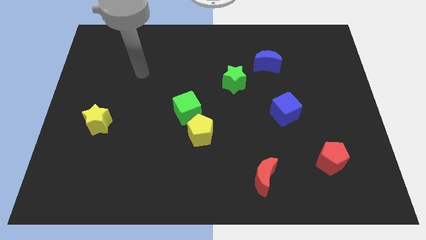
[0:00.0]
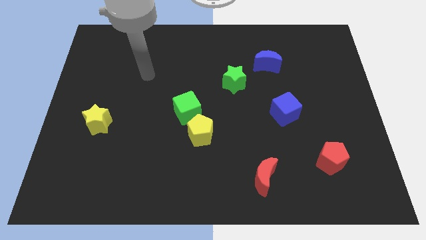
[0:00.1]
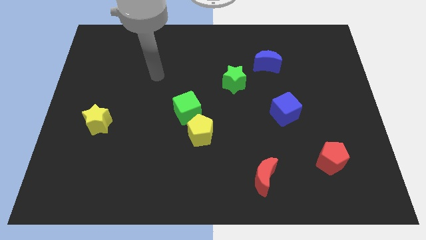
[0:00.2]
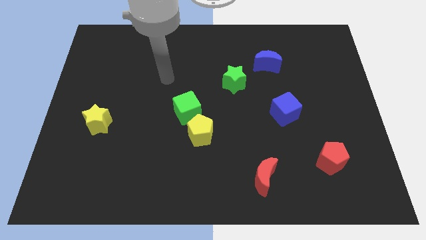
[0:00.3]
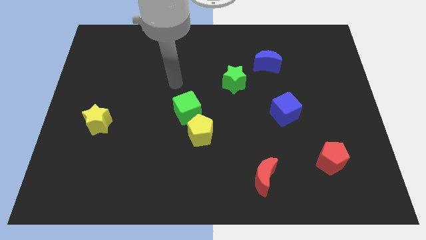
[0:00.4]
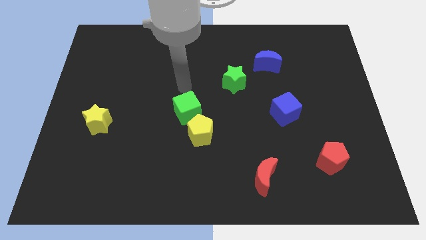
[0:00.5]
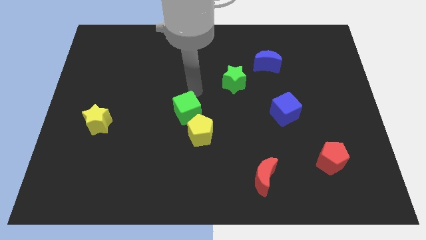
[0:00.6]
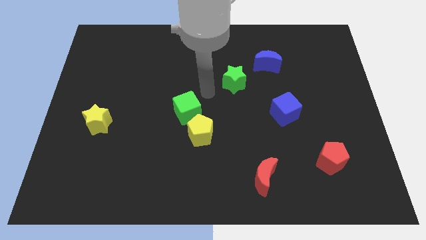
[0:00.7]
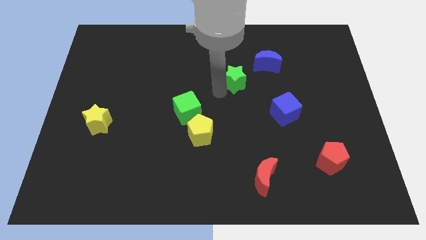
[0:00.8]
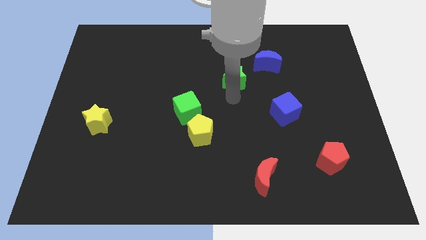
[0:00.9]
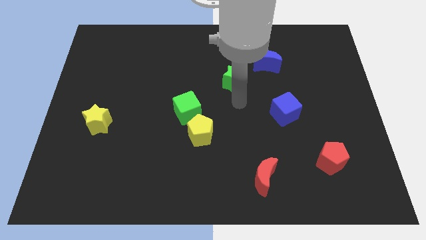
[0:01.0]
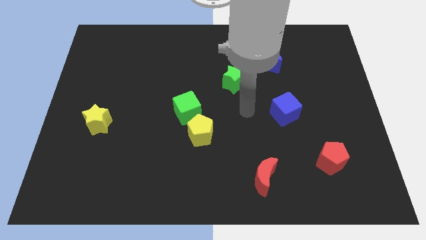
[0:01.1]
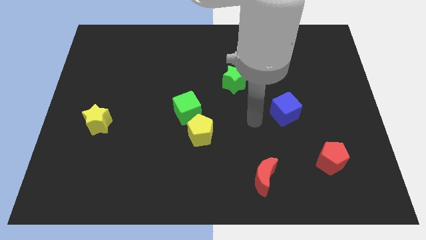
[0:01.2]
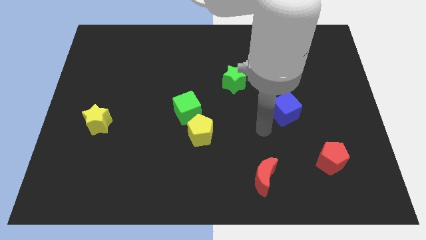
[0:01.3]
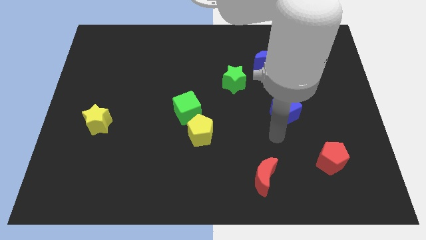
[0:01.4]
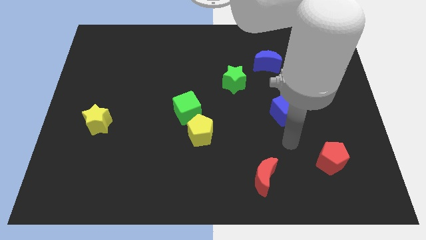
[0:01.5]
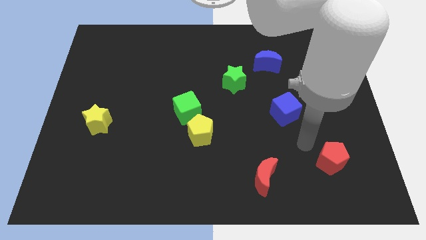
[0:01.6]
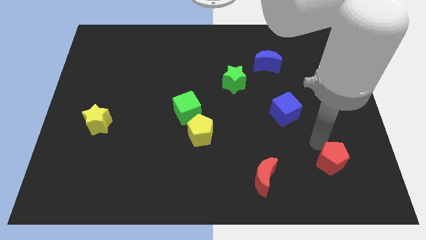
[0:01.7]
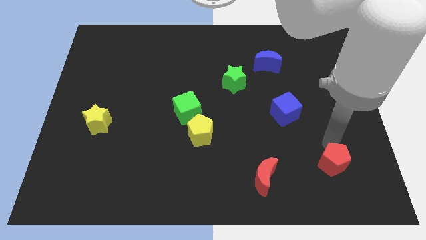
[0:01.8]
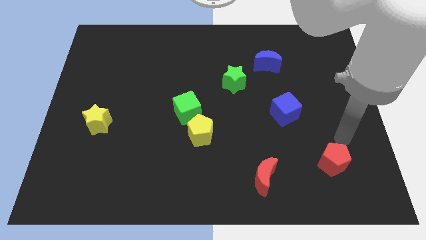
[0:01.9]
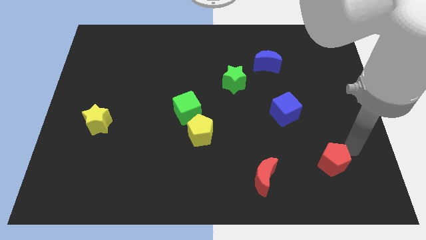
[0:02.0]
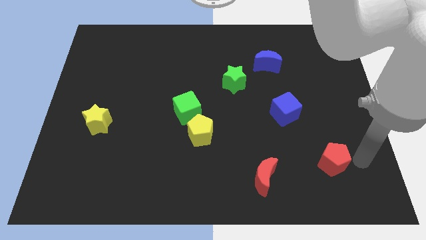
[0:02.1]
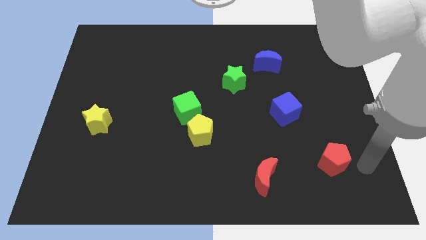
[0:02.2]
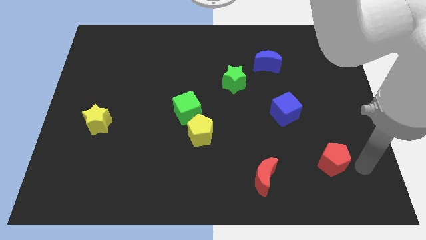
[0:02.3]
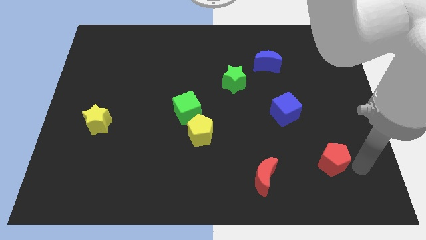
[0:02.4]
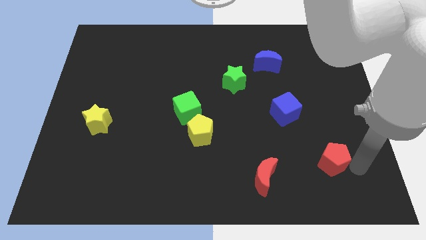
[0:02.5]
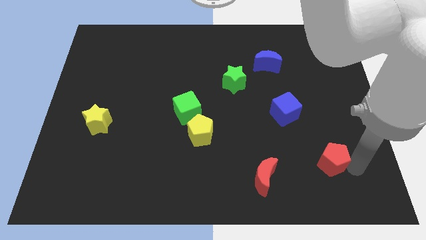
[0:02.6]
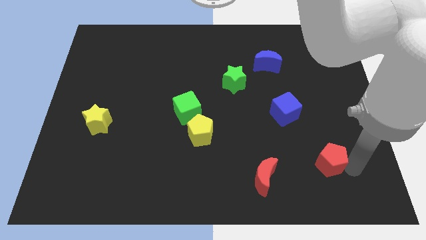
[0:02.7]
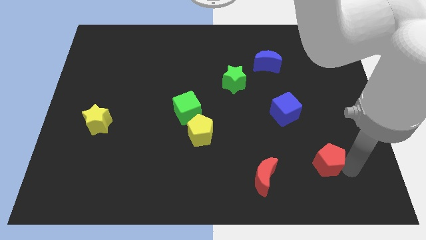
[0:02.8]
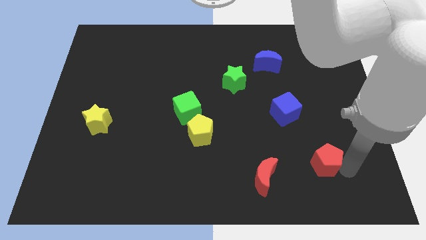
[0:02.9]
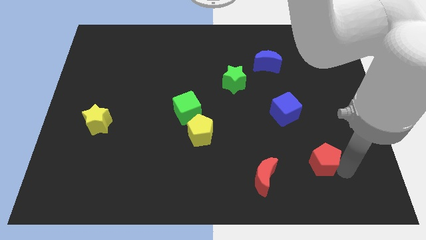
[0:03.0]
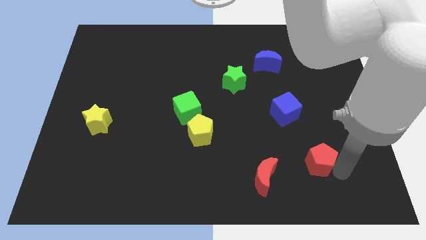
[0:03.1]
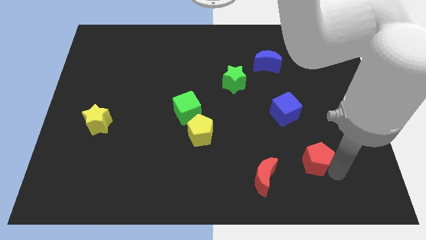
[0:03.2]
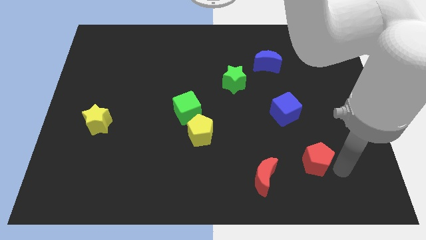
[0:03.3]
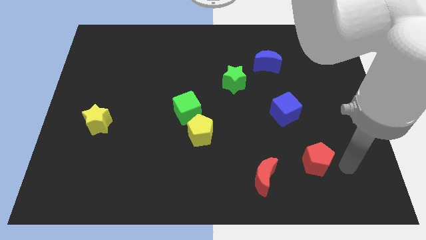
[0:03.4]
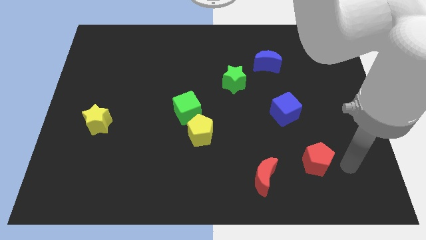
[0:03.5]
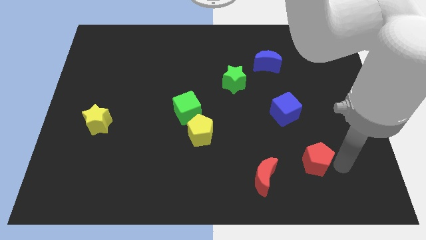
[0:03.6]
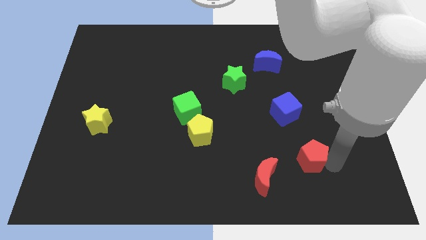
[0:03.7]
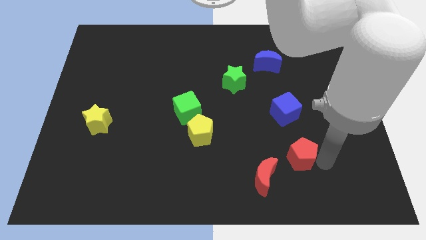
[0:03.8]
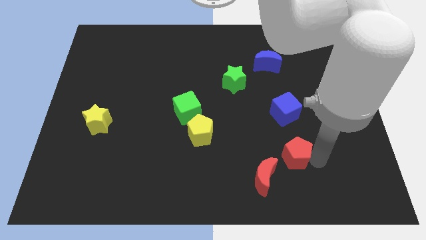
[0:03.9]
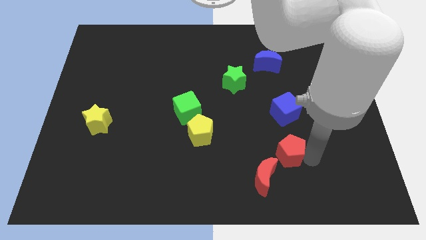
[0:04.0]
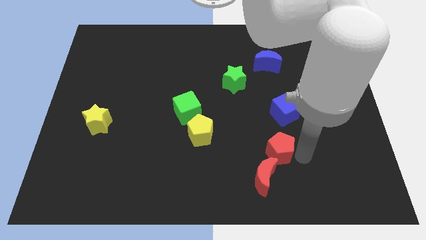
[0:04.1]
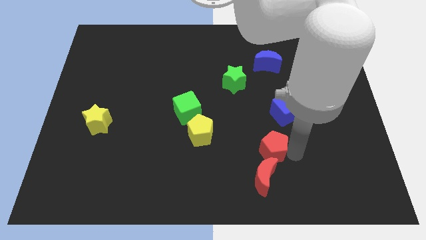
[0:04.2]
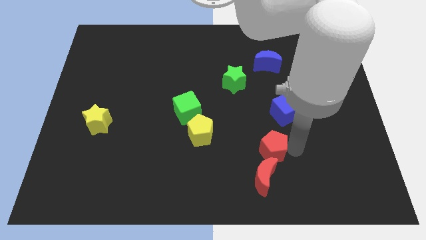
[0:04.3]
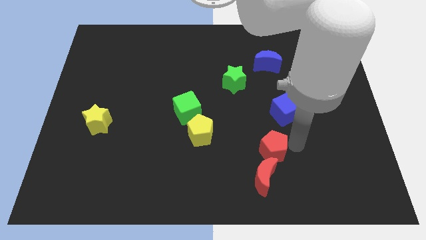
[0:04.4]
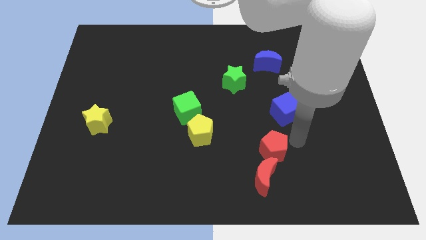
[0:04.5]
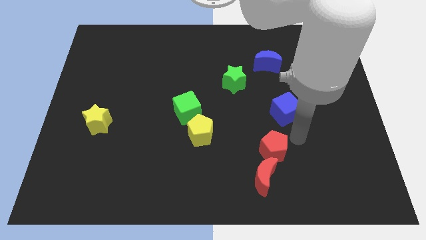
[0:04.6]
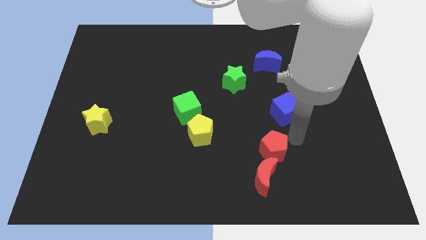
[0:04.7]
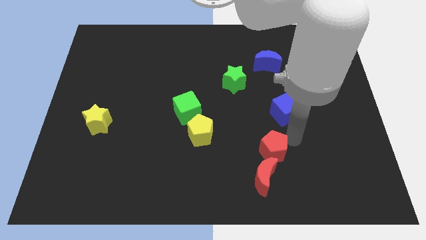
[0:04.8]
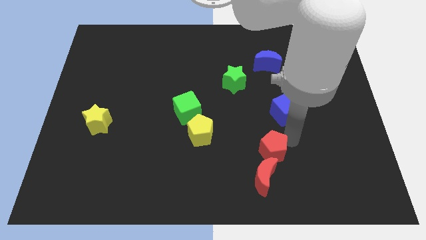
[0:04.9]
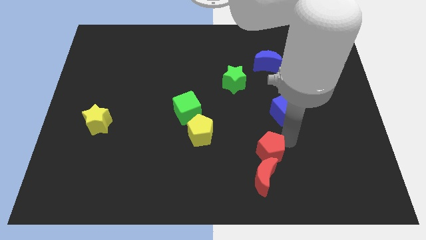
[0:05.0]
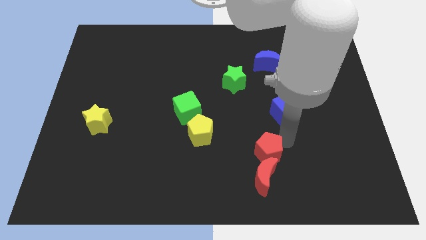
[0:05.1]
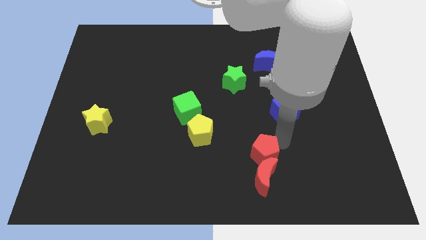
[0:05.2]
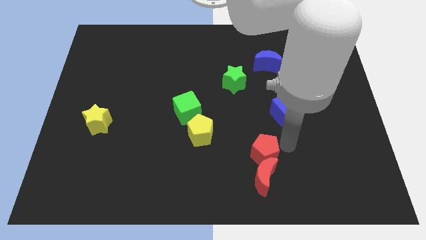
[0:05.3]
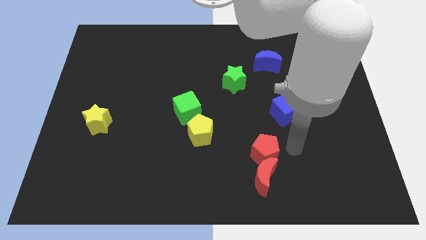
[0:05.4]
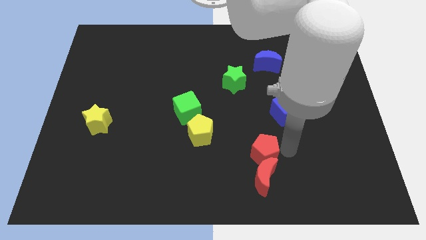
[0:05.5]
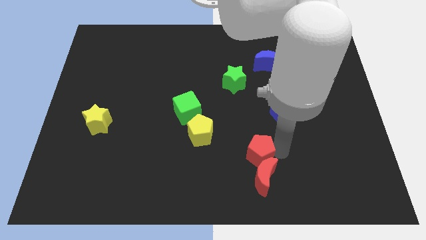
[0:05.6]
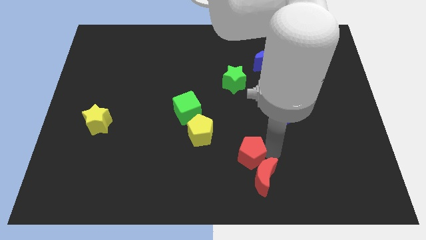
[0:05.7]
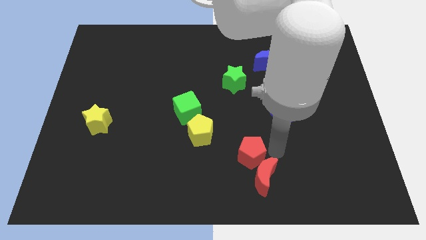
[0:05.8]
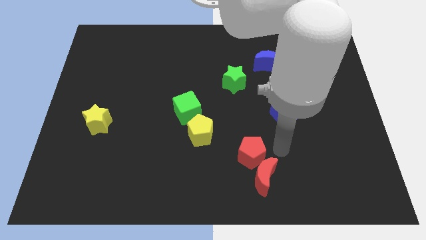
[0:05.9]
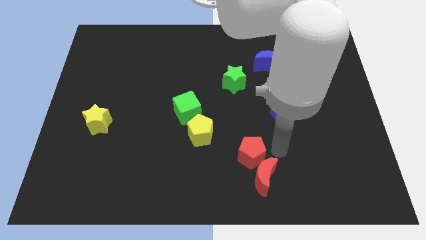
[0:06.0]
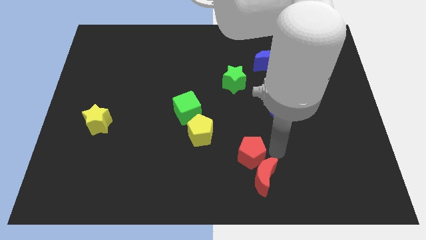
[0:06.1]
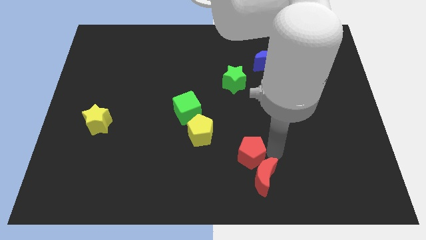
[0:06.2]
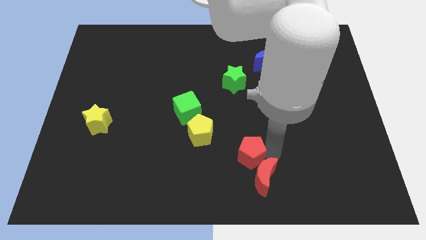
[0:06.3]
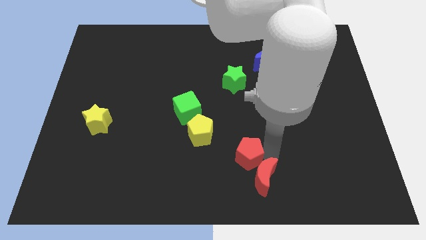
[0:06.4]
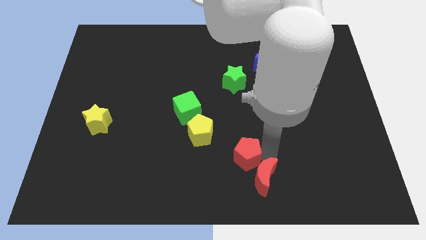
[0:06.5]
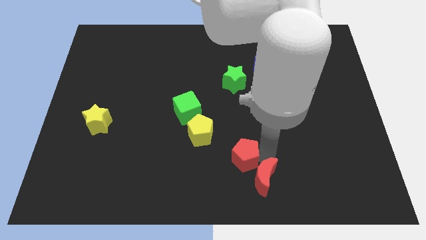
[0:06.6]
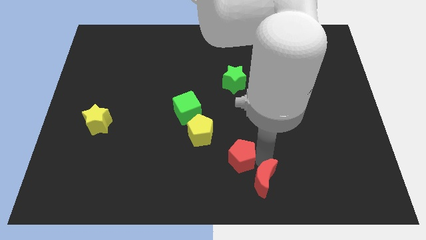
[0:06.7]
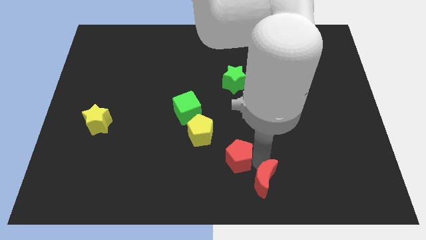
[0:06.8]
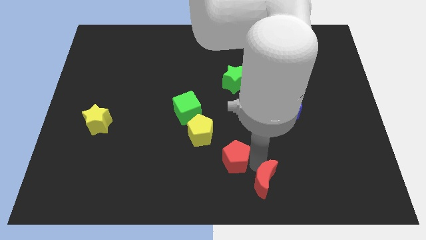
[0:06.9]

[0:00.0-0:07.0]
slide the red pentagon to the left

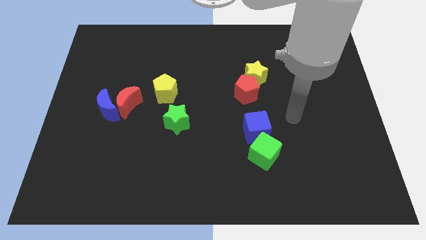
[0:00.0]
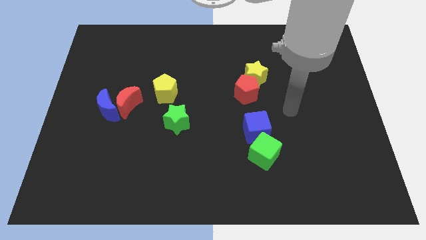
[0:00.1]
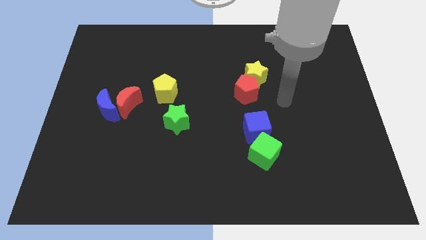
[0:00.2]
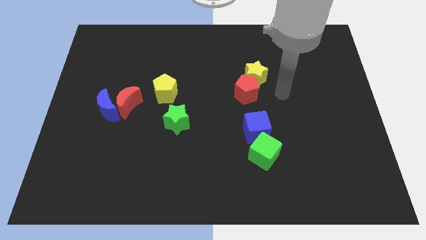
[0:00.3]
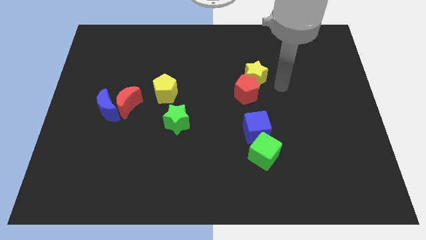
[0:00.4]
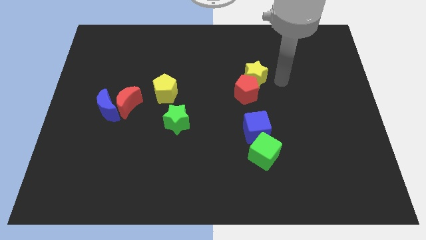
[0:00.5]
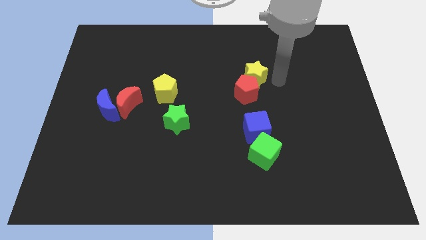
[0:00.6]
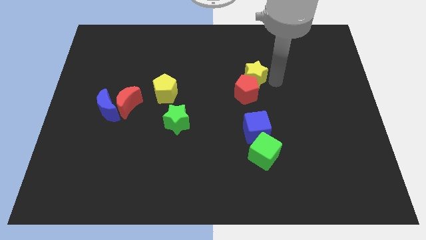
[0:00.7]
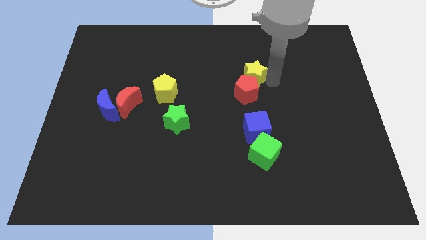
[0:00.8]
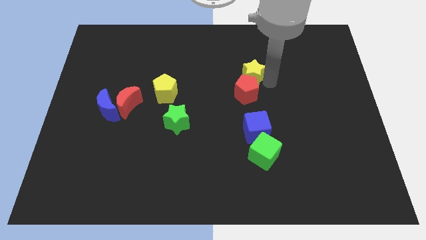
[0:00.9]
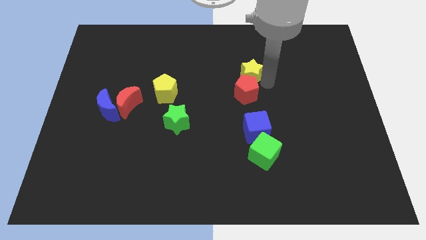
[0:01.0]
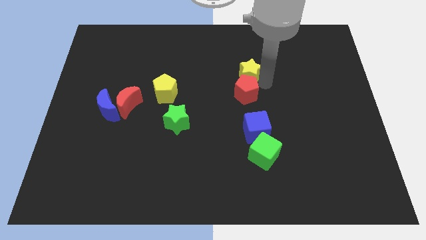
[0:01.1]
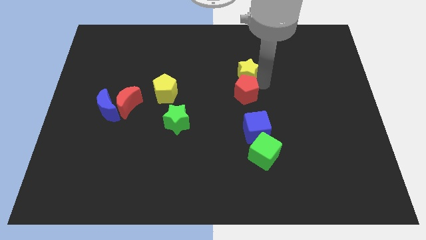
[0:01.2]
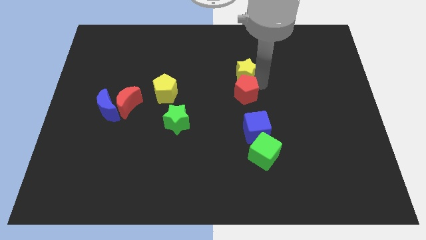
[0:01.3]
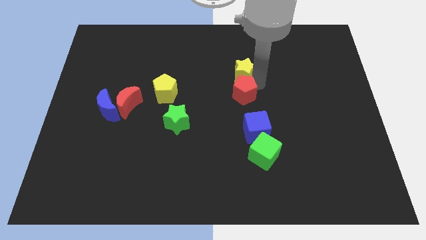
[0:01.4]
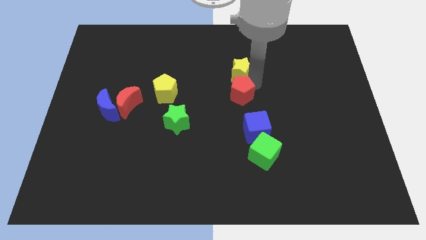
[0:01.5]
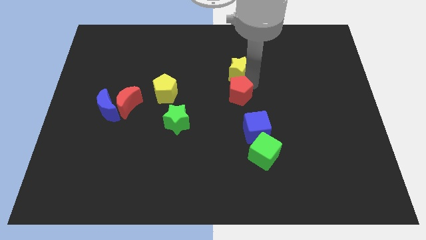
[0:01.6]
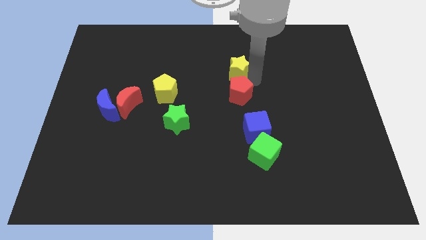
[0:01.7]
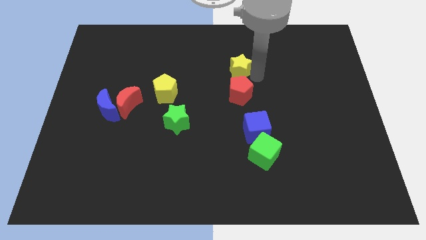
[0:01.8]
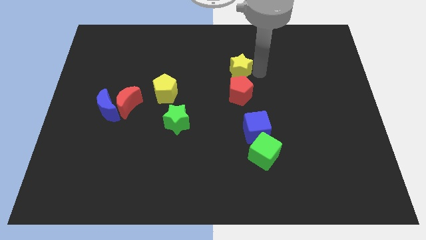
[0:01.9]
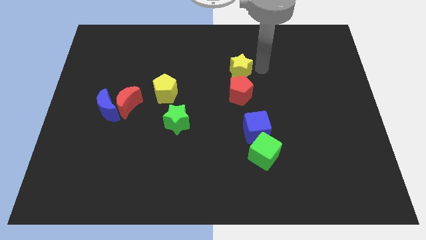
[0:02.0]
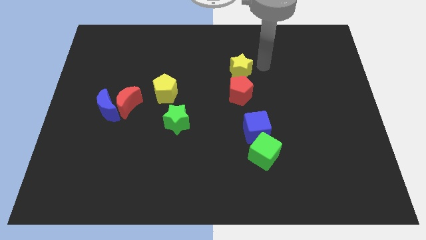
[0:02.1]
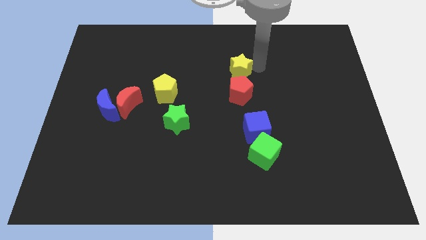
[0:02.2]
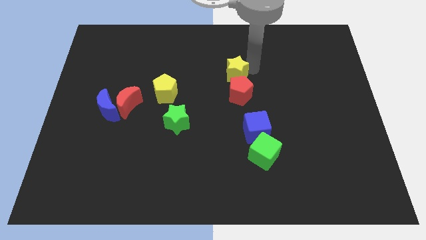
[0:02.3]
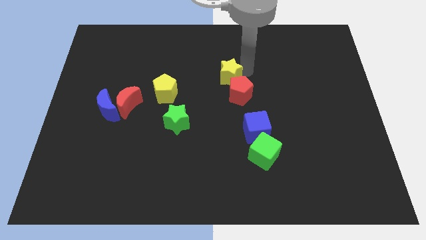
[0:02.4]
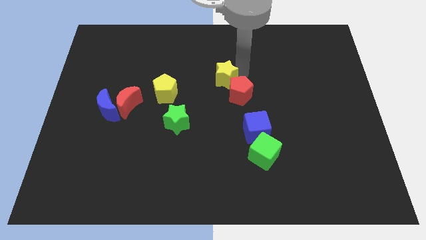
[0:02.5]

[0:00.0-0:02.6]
slide the yellow star a bit to the left
